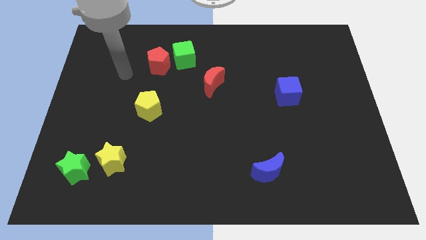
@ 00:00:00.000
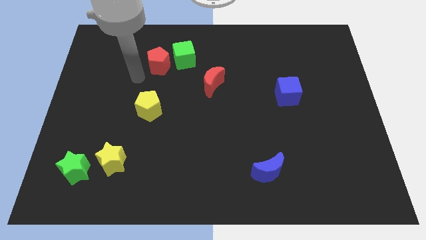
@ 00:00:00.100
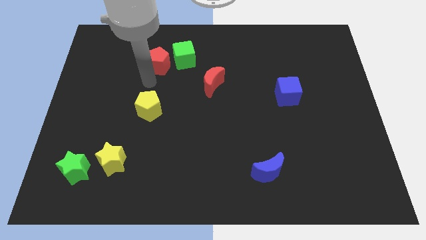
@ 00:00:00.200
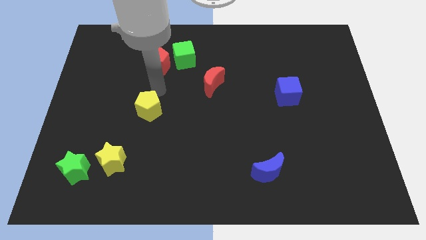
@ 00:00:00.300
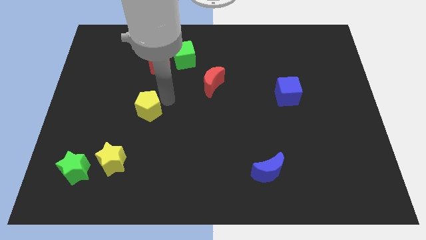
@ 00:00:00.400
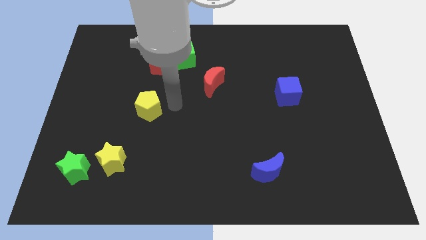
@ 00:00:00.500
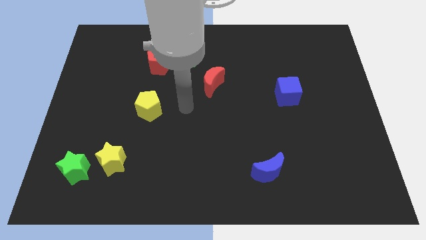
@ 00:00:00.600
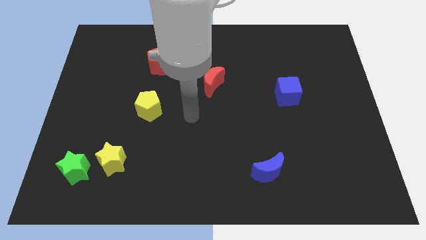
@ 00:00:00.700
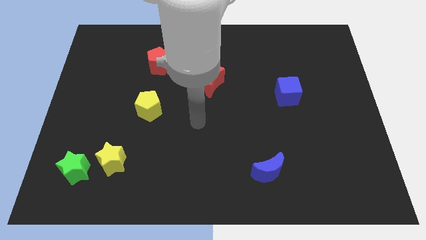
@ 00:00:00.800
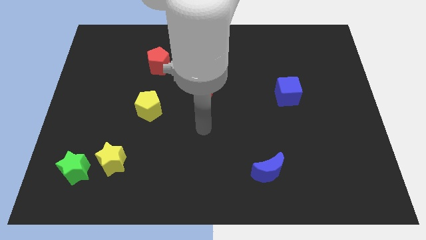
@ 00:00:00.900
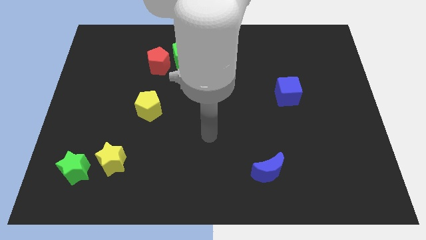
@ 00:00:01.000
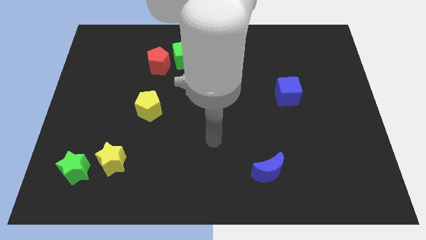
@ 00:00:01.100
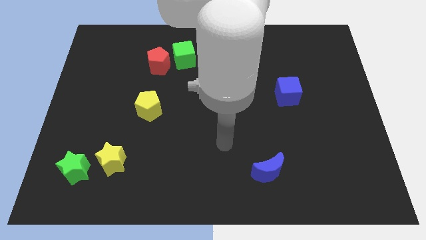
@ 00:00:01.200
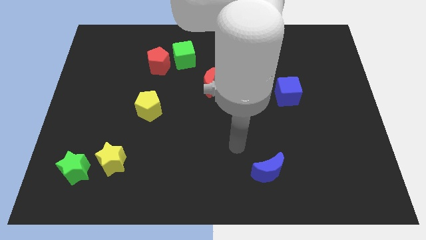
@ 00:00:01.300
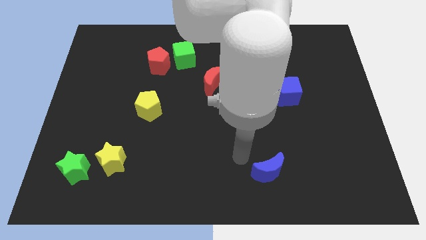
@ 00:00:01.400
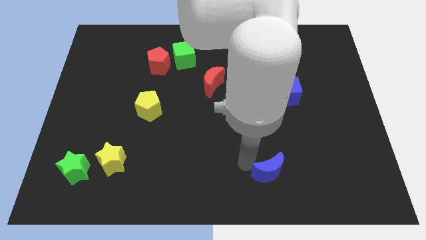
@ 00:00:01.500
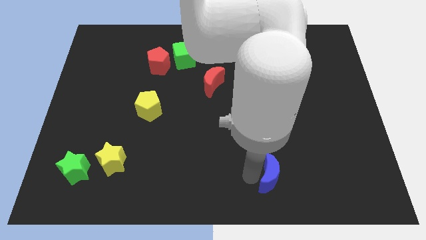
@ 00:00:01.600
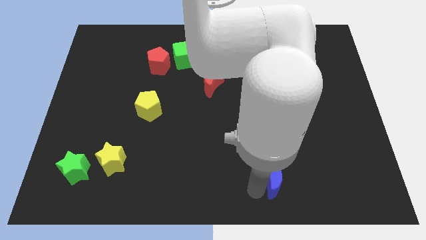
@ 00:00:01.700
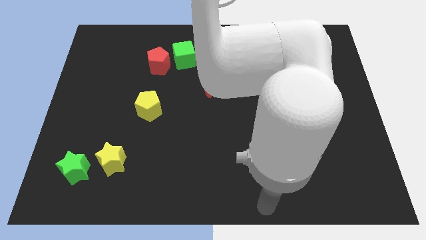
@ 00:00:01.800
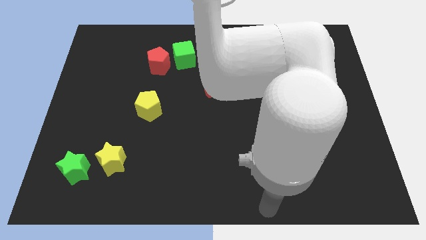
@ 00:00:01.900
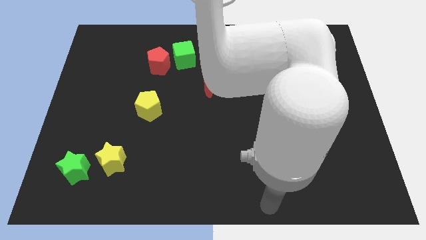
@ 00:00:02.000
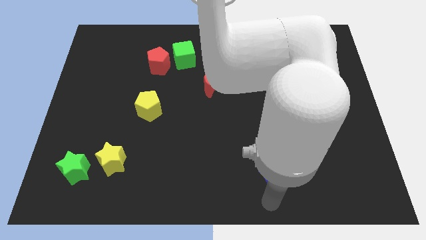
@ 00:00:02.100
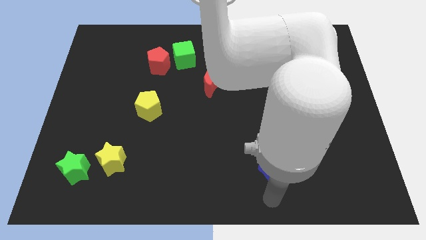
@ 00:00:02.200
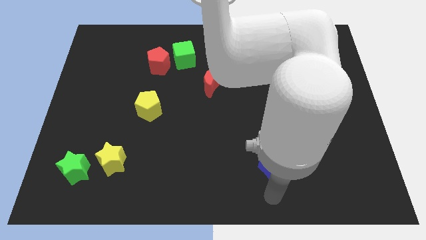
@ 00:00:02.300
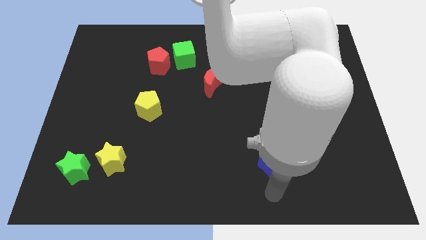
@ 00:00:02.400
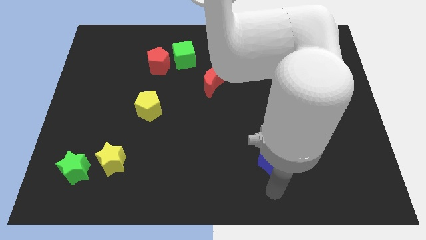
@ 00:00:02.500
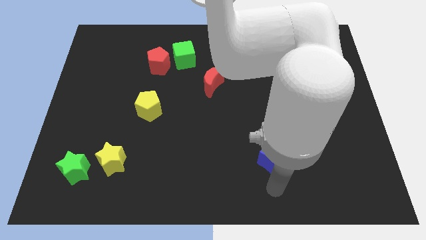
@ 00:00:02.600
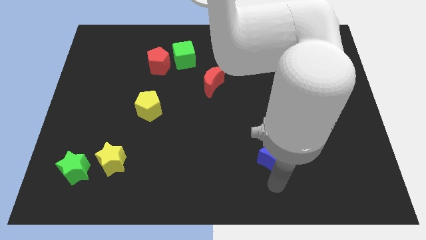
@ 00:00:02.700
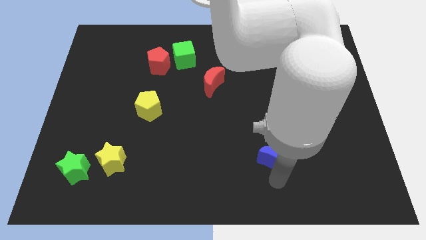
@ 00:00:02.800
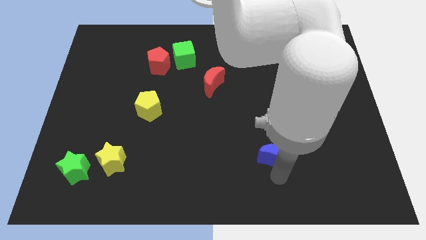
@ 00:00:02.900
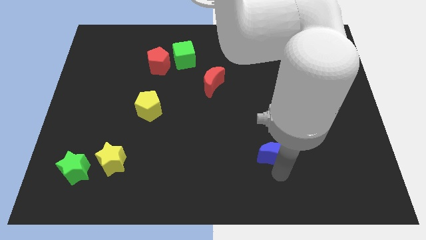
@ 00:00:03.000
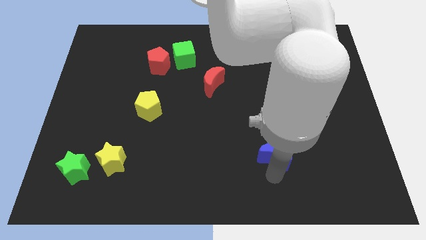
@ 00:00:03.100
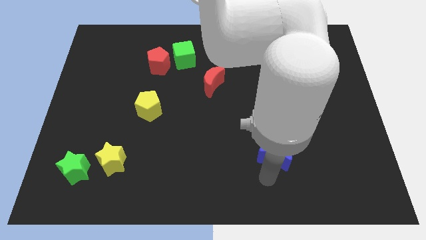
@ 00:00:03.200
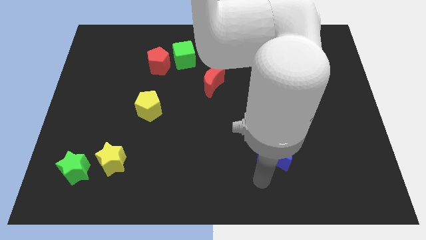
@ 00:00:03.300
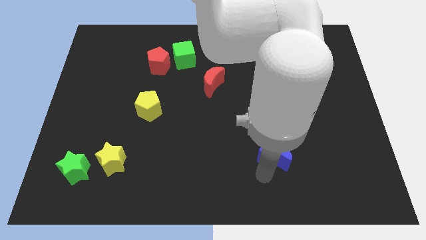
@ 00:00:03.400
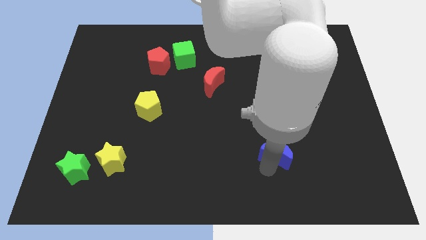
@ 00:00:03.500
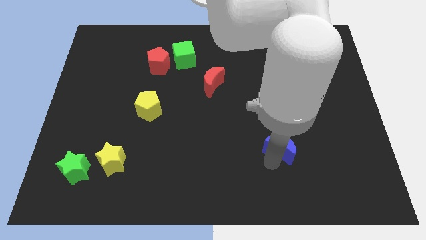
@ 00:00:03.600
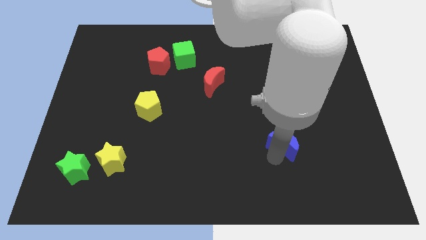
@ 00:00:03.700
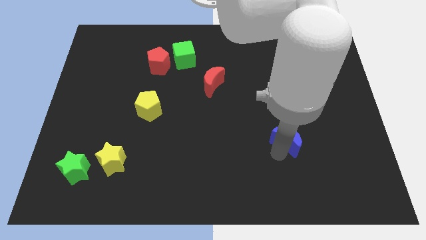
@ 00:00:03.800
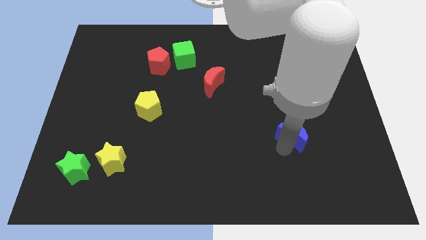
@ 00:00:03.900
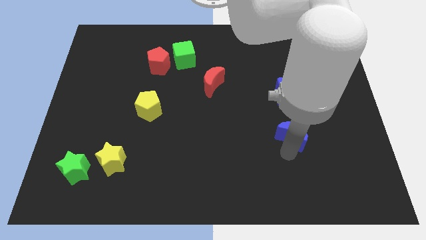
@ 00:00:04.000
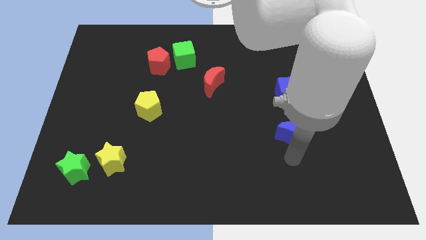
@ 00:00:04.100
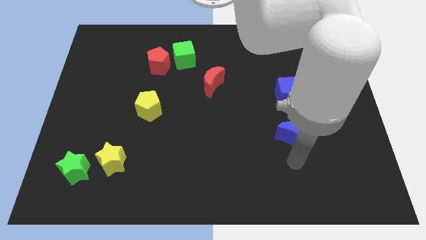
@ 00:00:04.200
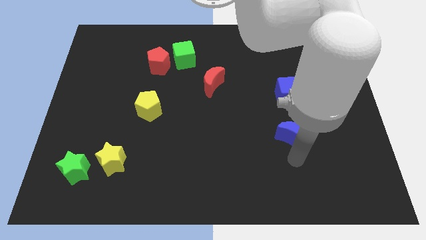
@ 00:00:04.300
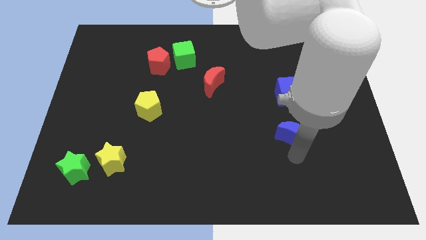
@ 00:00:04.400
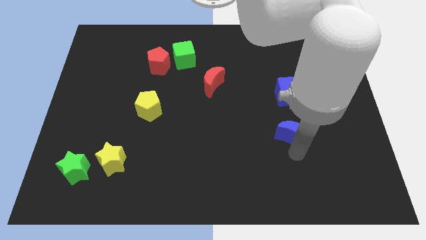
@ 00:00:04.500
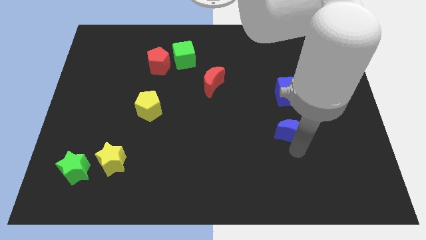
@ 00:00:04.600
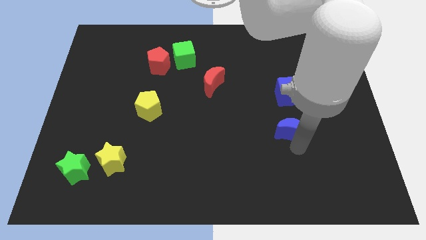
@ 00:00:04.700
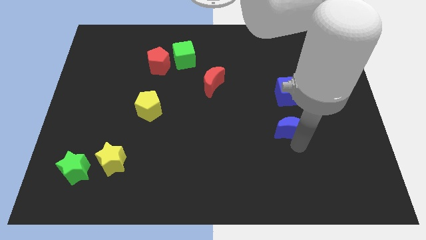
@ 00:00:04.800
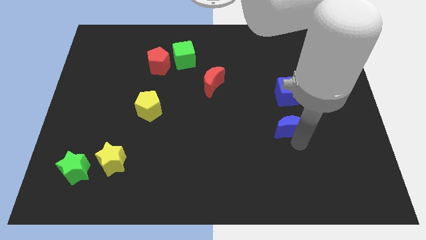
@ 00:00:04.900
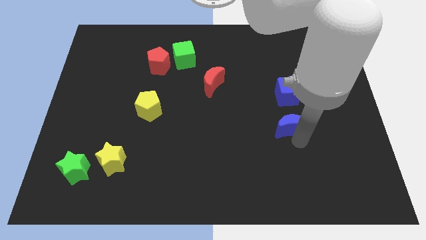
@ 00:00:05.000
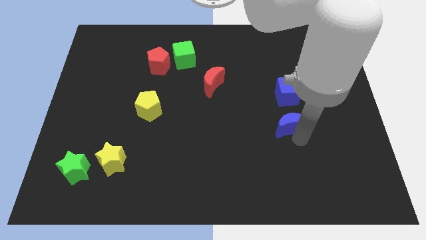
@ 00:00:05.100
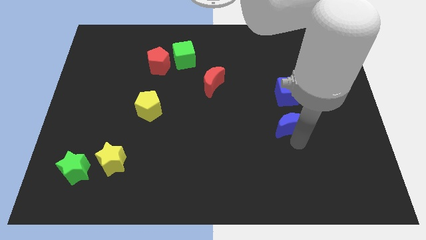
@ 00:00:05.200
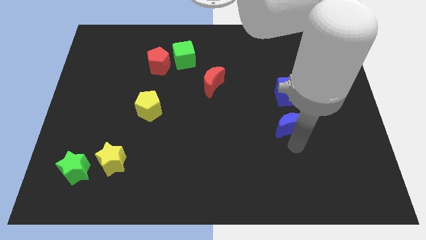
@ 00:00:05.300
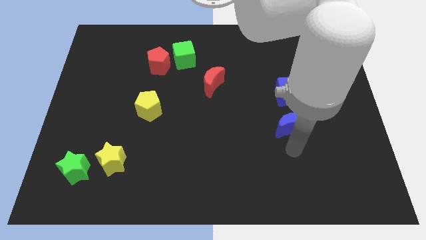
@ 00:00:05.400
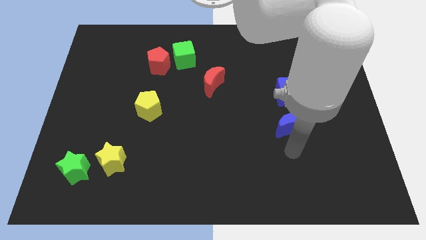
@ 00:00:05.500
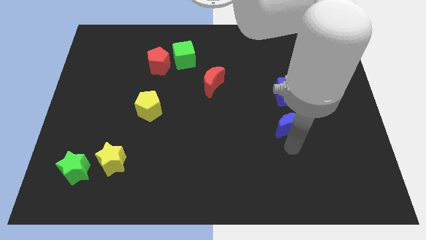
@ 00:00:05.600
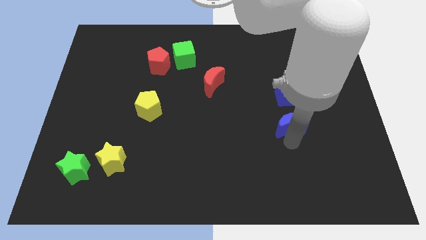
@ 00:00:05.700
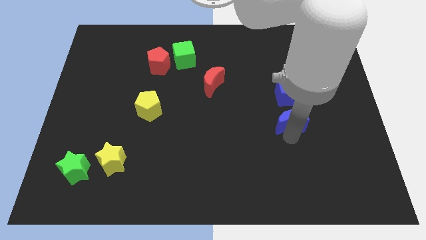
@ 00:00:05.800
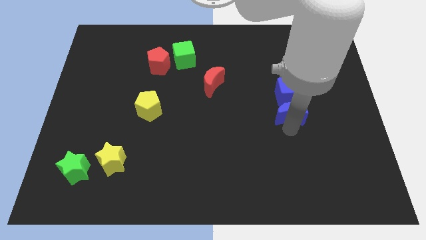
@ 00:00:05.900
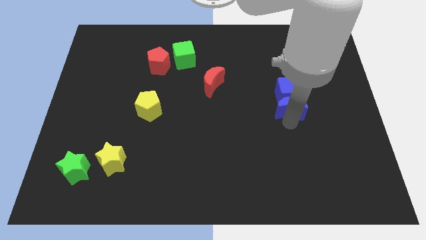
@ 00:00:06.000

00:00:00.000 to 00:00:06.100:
put the blue moon towards the blue cube

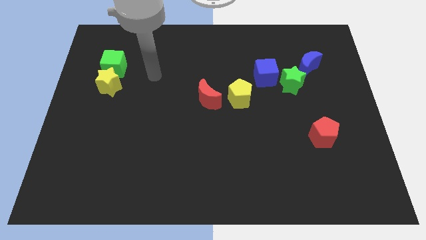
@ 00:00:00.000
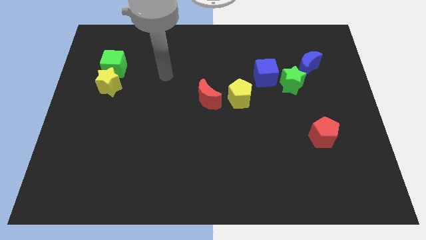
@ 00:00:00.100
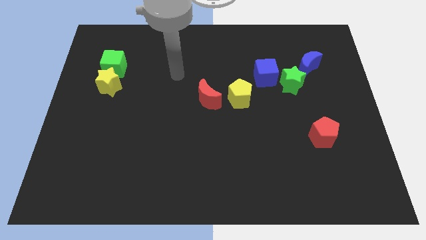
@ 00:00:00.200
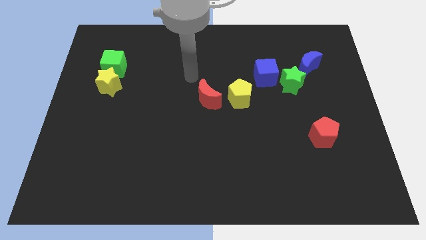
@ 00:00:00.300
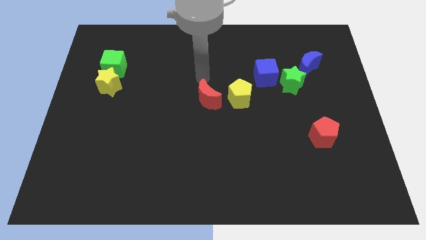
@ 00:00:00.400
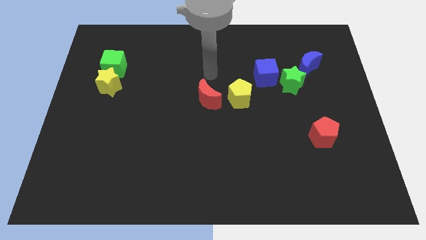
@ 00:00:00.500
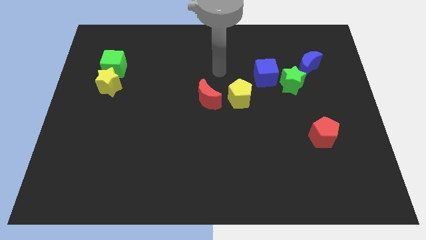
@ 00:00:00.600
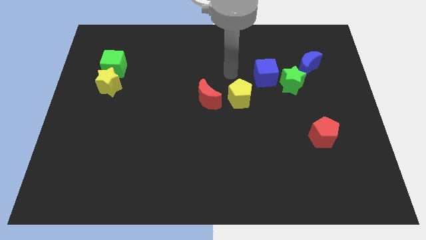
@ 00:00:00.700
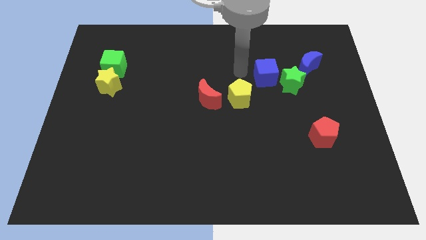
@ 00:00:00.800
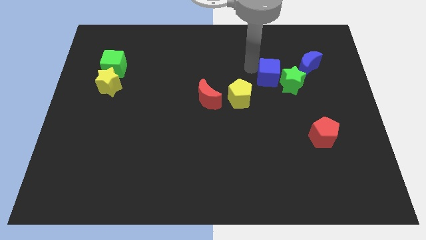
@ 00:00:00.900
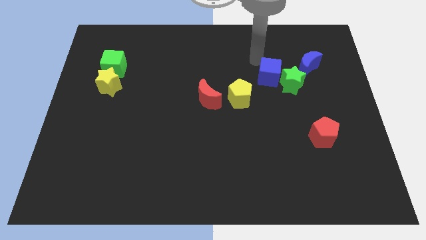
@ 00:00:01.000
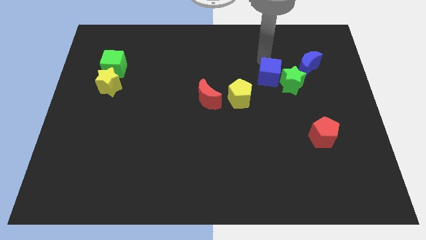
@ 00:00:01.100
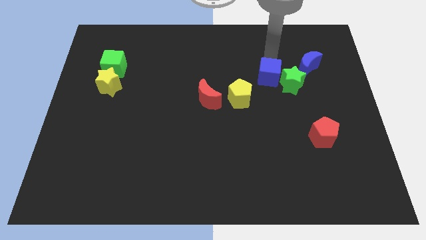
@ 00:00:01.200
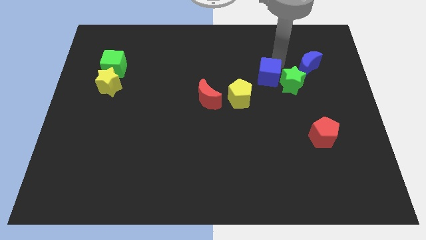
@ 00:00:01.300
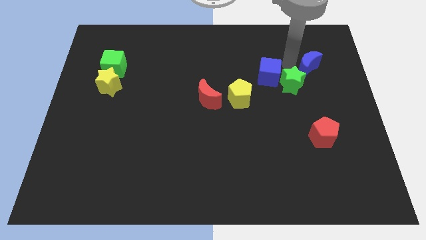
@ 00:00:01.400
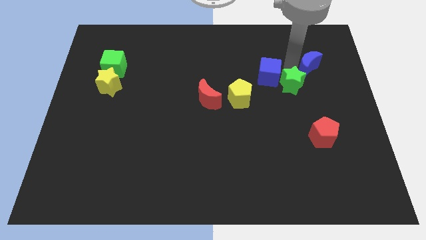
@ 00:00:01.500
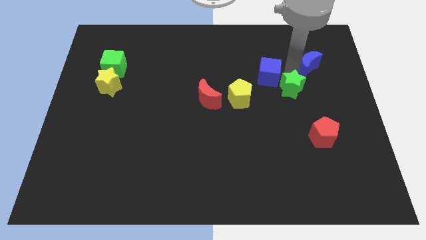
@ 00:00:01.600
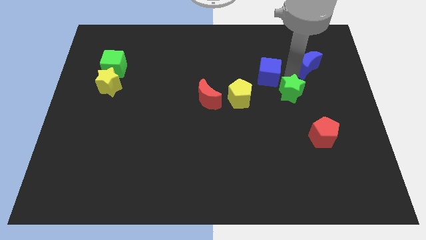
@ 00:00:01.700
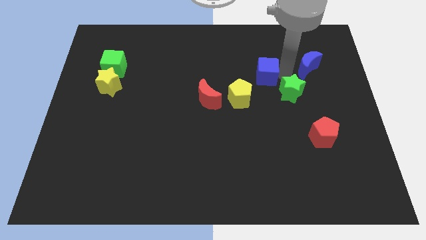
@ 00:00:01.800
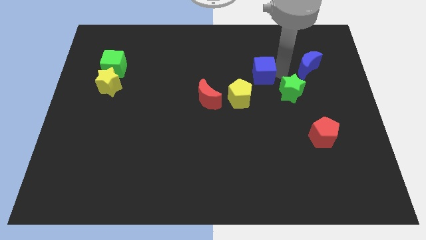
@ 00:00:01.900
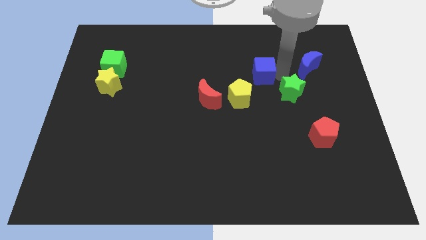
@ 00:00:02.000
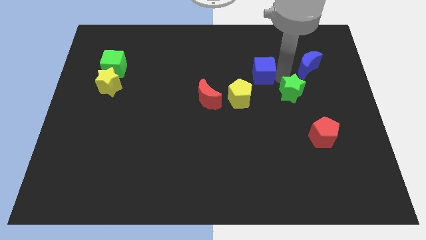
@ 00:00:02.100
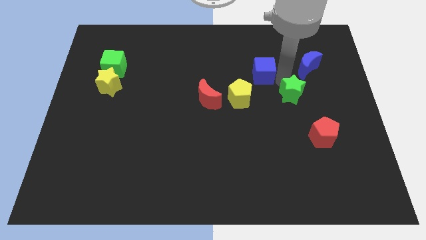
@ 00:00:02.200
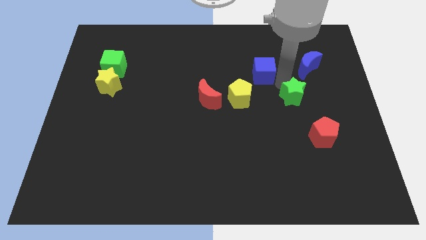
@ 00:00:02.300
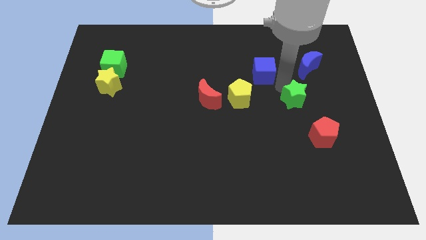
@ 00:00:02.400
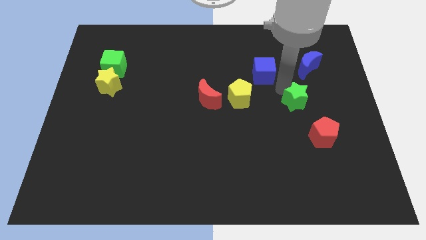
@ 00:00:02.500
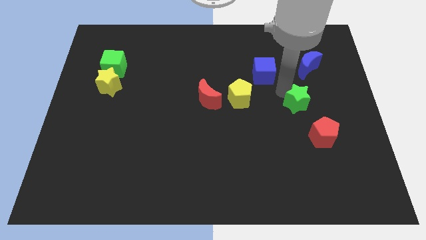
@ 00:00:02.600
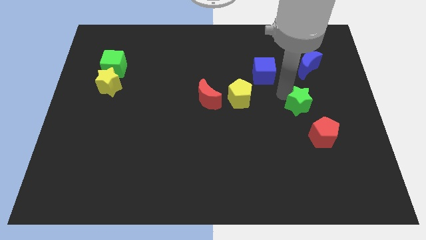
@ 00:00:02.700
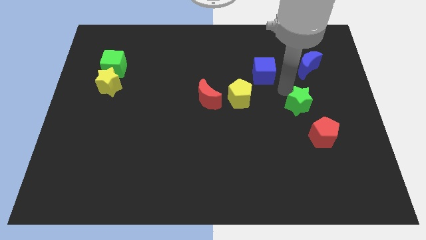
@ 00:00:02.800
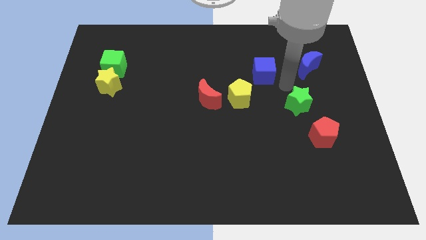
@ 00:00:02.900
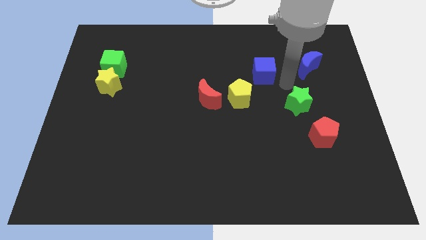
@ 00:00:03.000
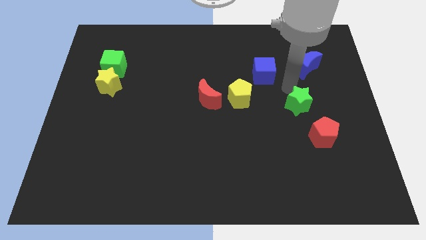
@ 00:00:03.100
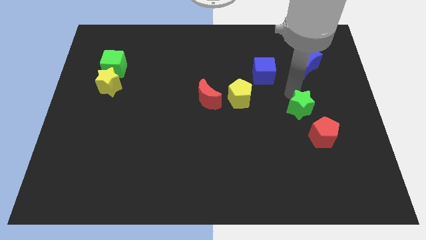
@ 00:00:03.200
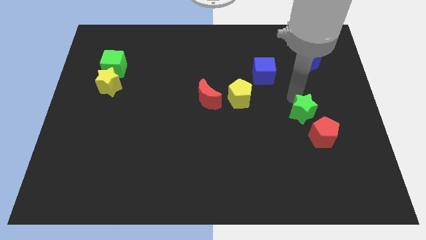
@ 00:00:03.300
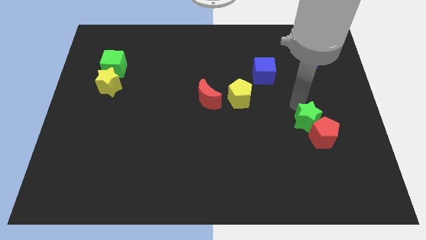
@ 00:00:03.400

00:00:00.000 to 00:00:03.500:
move the green star close to the red pentagon
